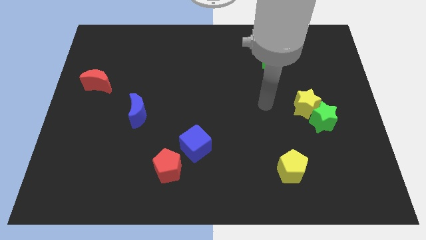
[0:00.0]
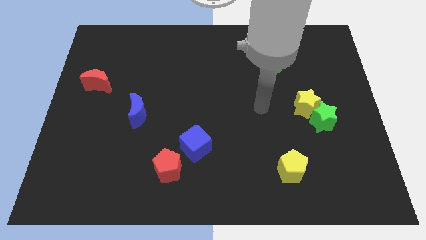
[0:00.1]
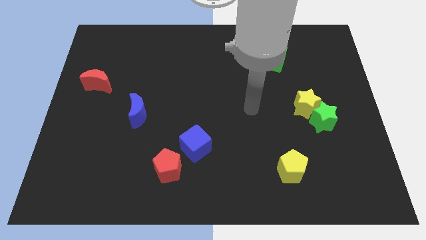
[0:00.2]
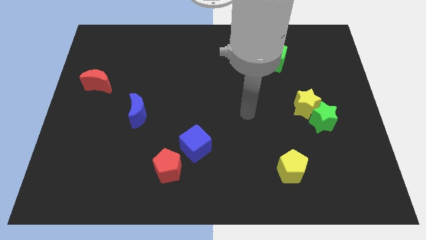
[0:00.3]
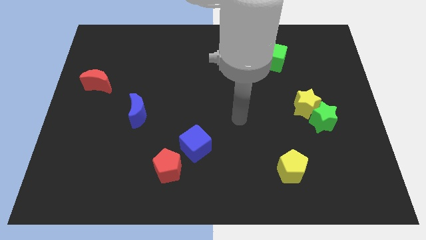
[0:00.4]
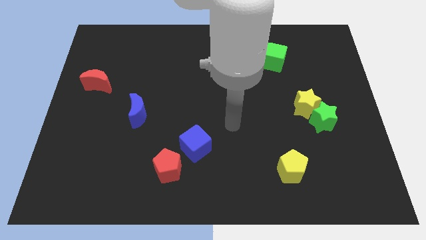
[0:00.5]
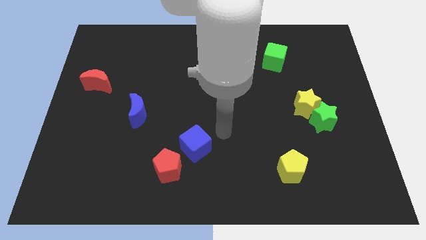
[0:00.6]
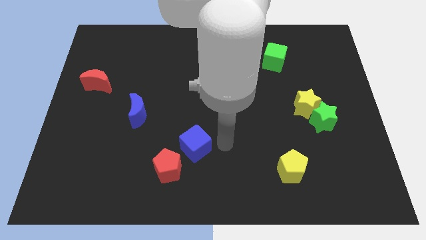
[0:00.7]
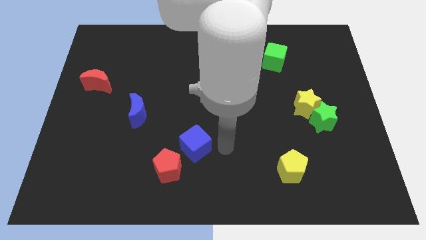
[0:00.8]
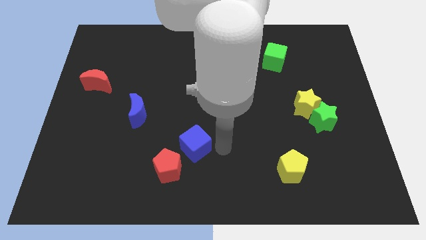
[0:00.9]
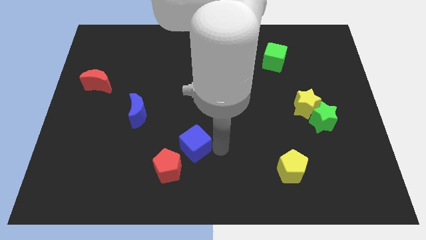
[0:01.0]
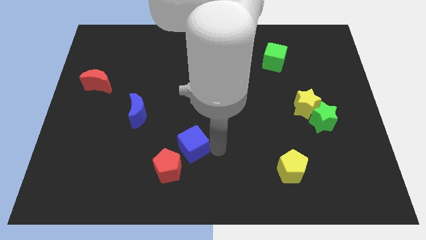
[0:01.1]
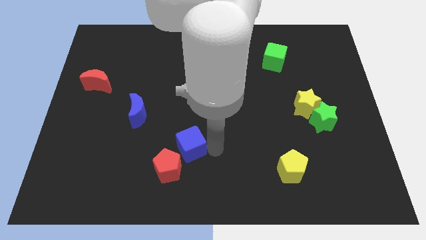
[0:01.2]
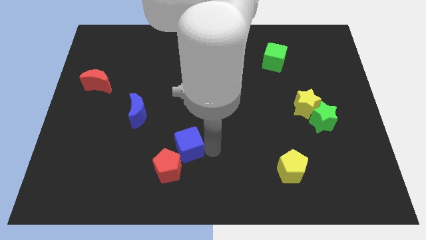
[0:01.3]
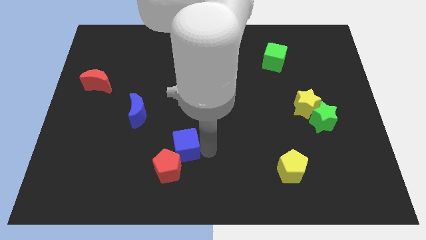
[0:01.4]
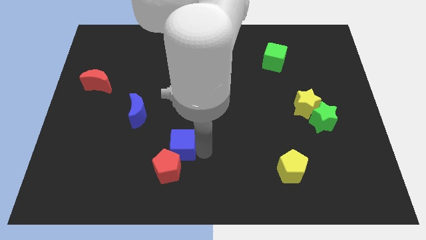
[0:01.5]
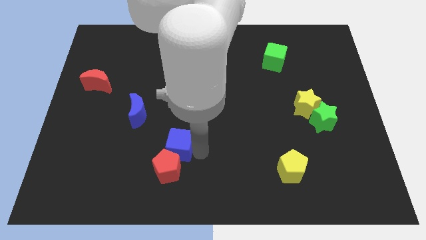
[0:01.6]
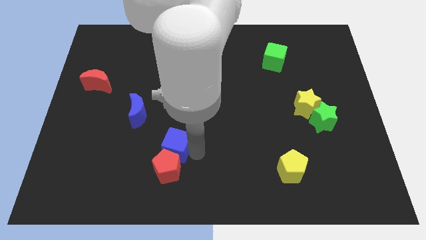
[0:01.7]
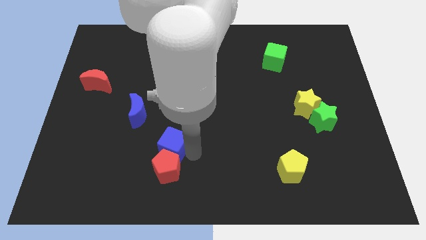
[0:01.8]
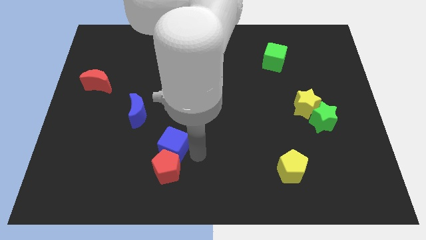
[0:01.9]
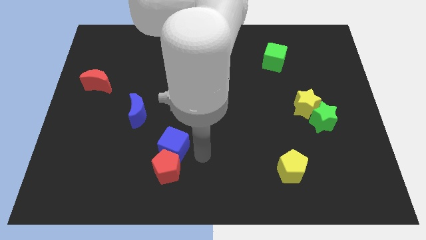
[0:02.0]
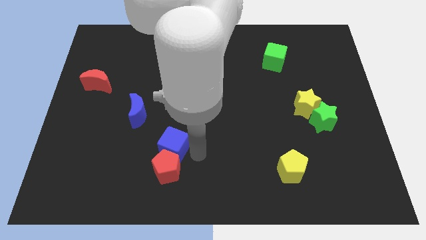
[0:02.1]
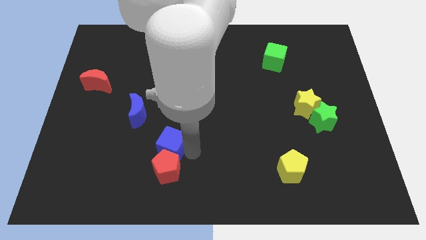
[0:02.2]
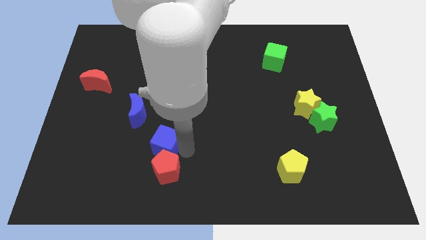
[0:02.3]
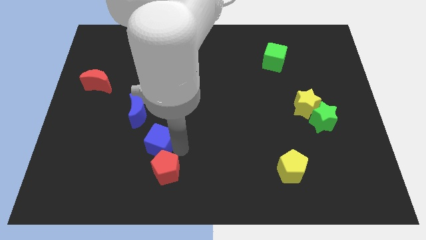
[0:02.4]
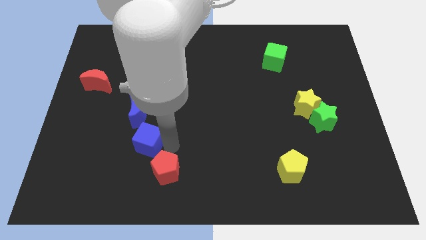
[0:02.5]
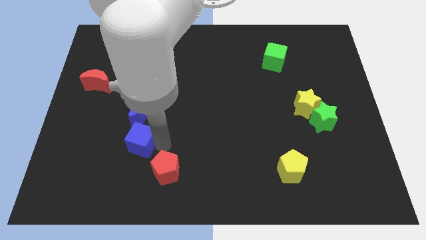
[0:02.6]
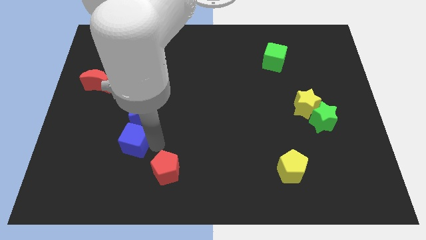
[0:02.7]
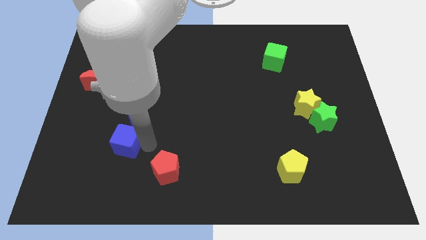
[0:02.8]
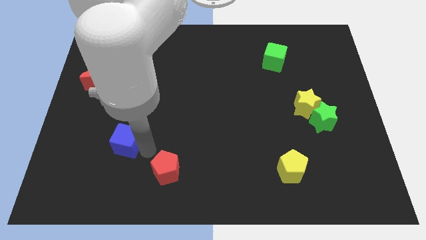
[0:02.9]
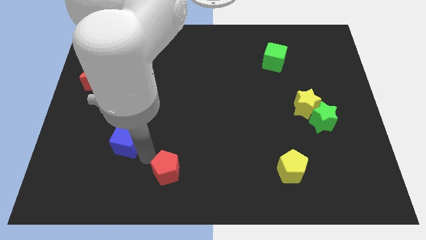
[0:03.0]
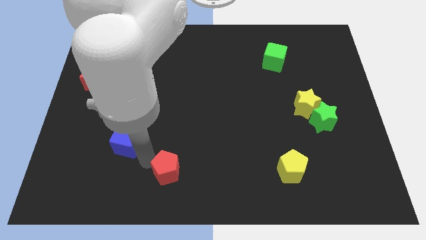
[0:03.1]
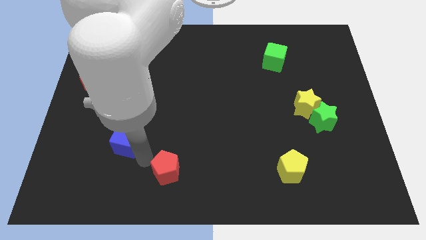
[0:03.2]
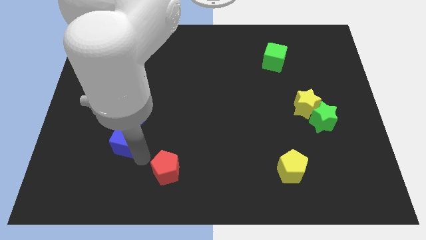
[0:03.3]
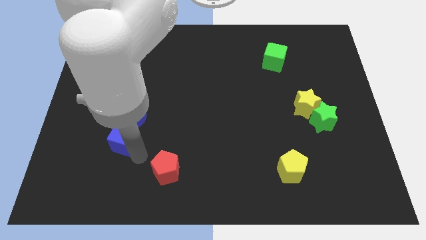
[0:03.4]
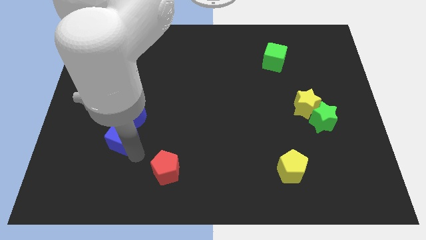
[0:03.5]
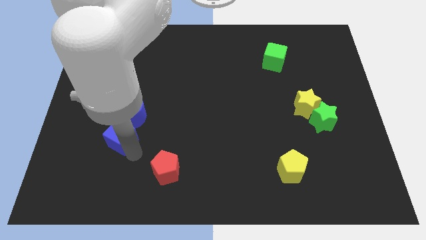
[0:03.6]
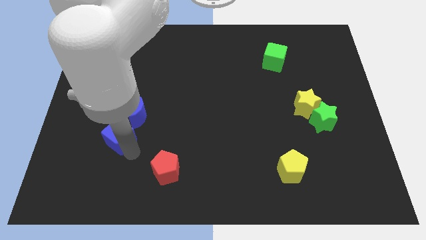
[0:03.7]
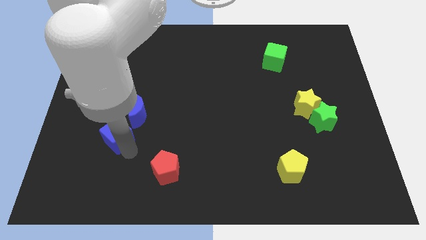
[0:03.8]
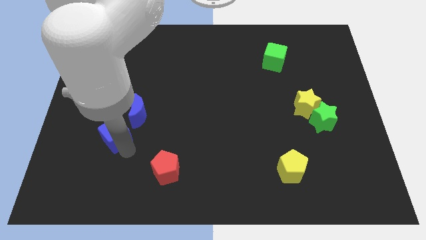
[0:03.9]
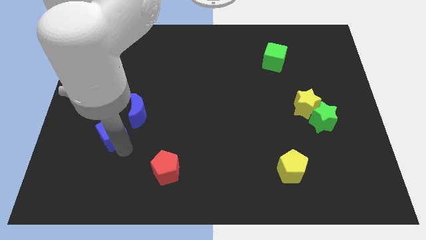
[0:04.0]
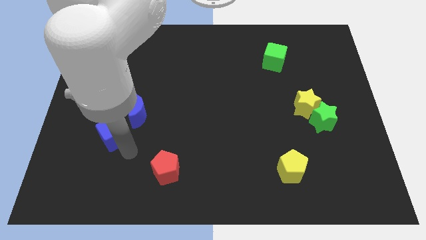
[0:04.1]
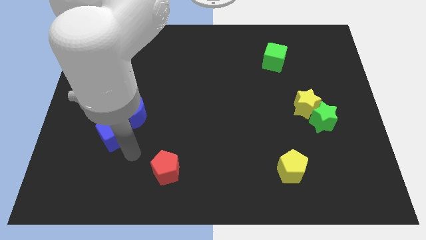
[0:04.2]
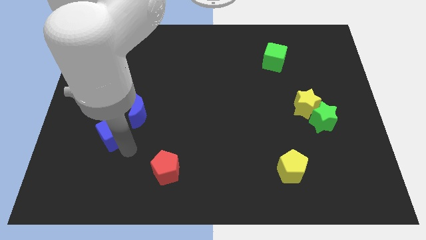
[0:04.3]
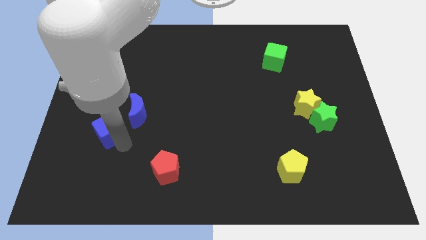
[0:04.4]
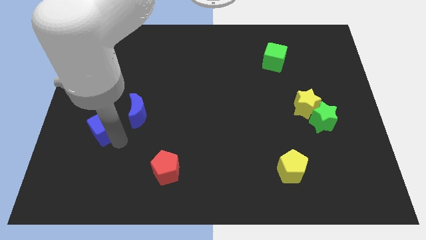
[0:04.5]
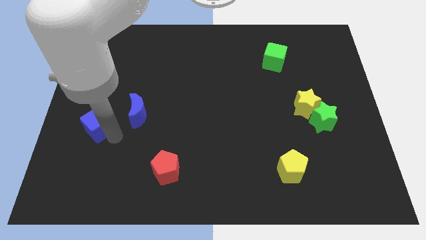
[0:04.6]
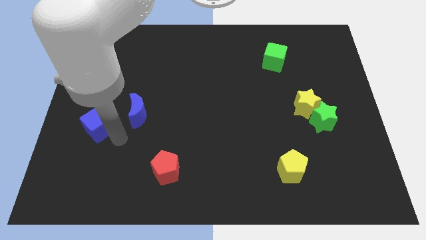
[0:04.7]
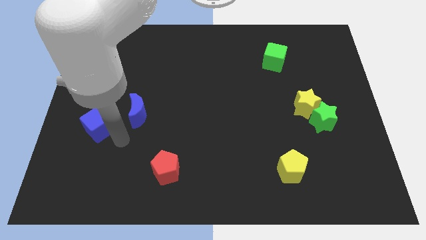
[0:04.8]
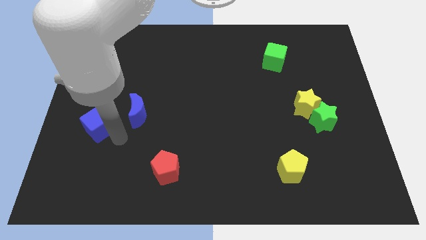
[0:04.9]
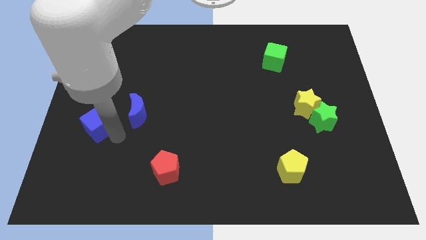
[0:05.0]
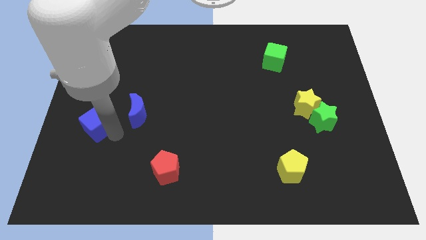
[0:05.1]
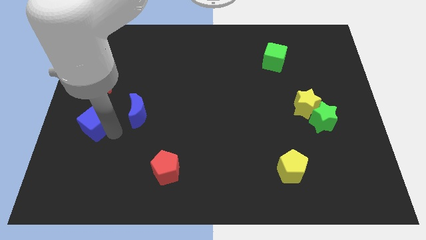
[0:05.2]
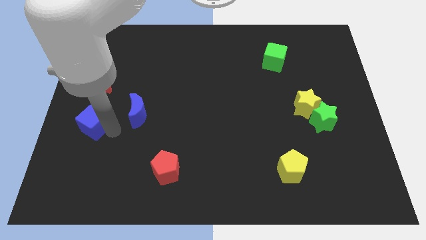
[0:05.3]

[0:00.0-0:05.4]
push the blue cube to the center left
